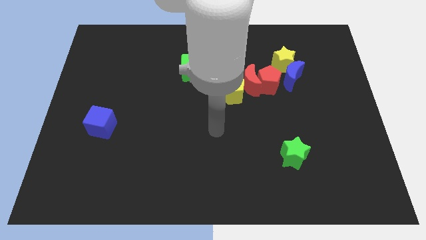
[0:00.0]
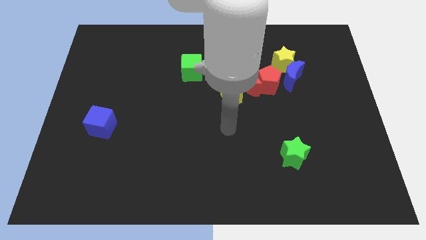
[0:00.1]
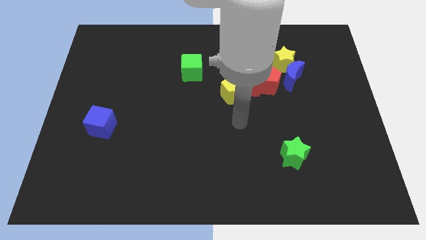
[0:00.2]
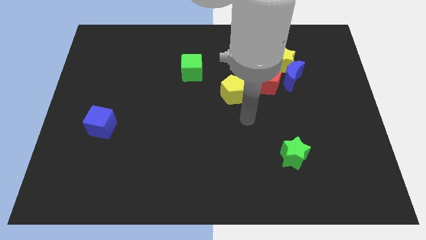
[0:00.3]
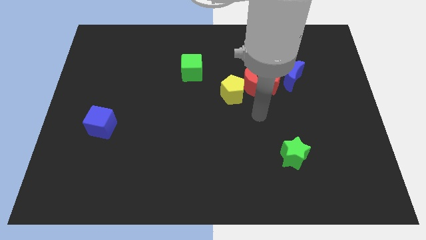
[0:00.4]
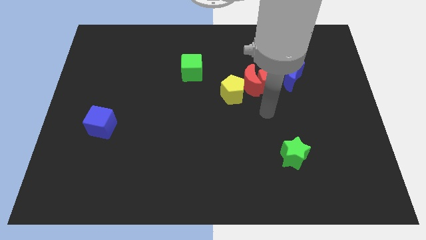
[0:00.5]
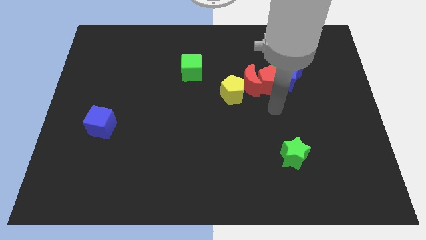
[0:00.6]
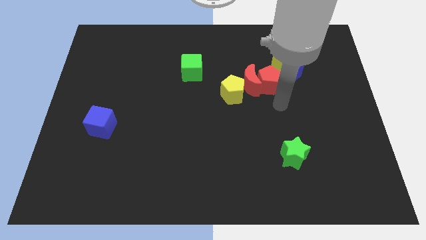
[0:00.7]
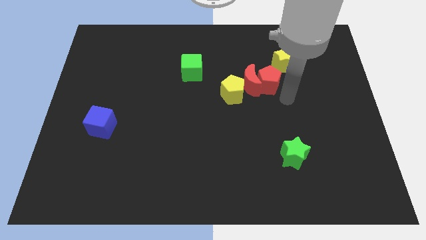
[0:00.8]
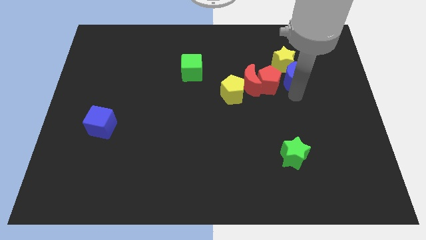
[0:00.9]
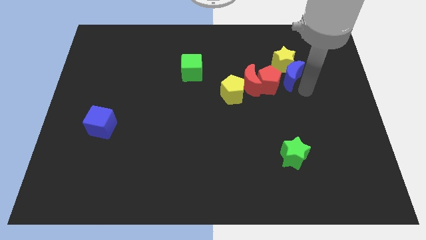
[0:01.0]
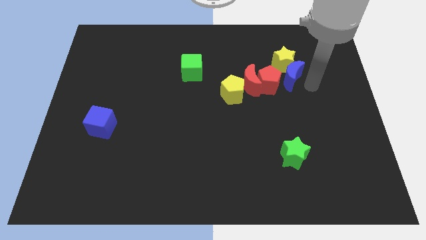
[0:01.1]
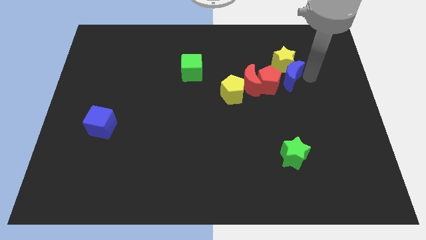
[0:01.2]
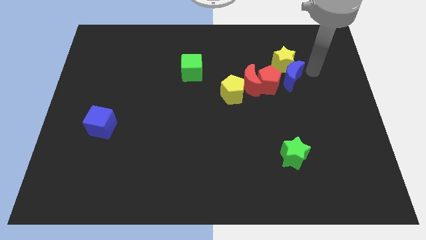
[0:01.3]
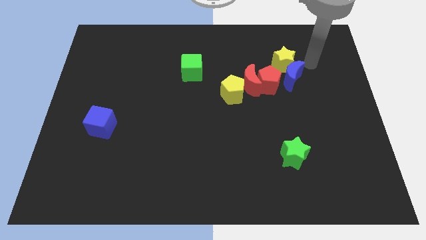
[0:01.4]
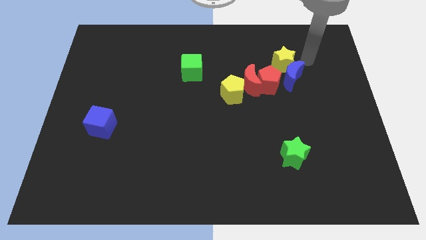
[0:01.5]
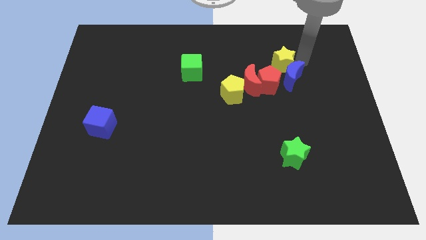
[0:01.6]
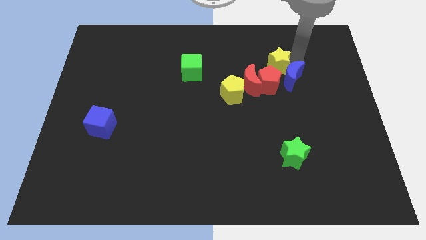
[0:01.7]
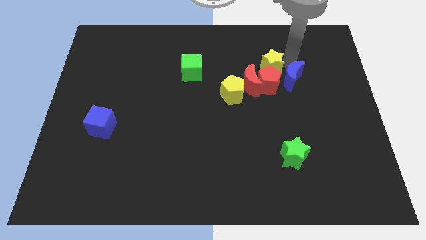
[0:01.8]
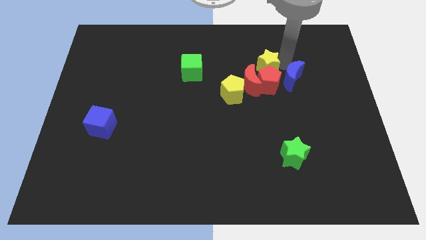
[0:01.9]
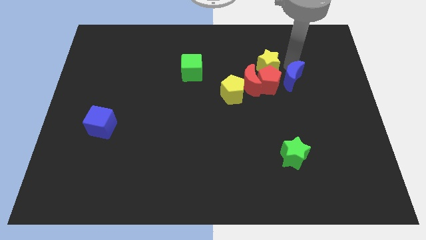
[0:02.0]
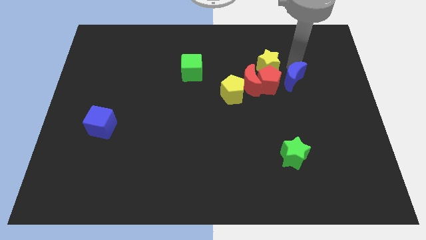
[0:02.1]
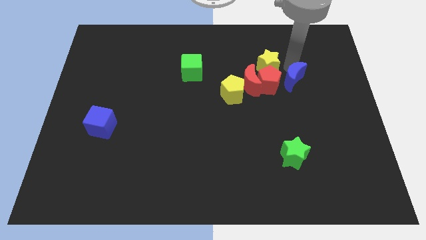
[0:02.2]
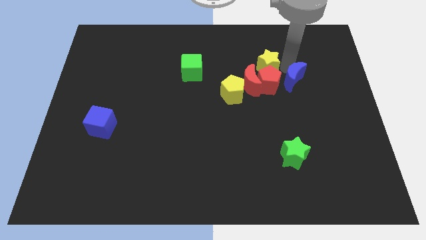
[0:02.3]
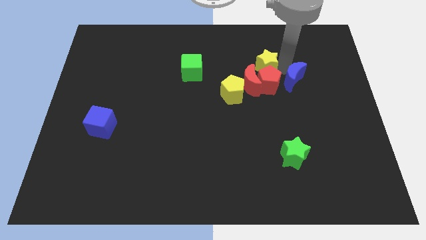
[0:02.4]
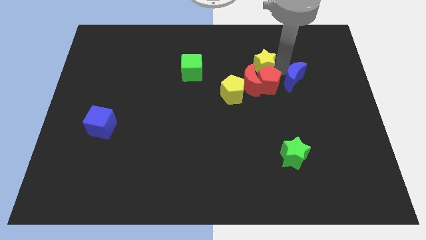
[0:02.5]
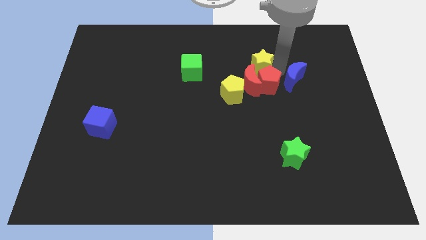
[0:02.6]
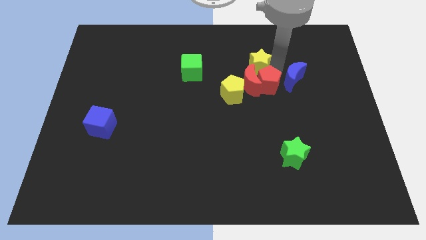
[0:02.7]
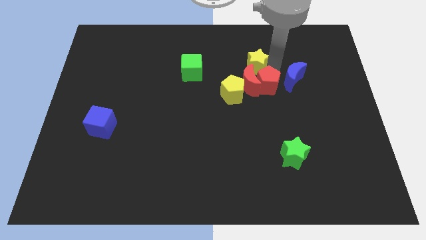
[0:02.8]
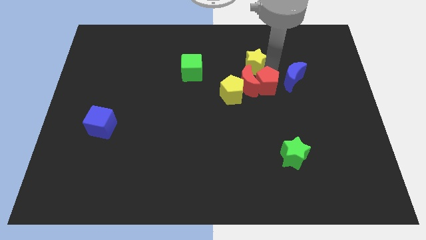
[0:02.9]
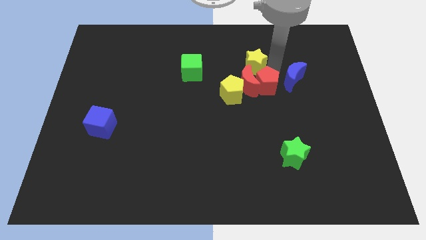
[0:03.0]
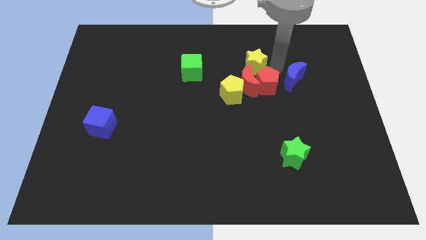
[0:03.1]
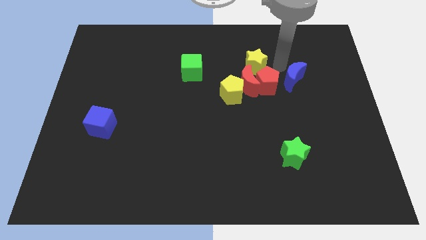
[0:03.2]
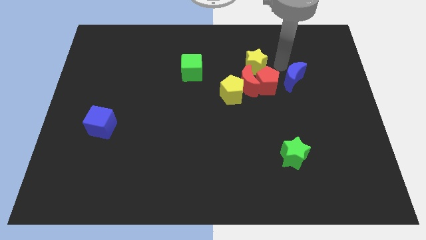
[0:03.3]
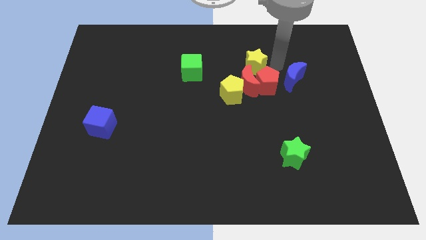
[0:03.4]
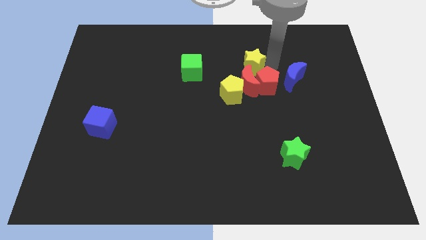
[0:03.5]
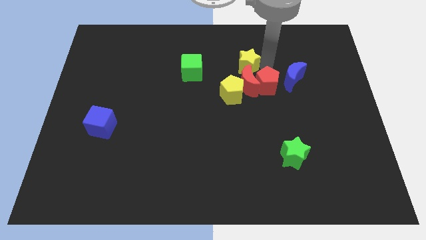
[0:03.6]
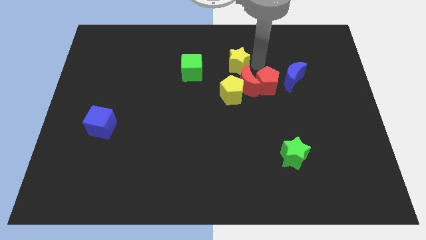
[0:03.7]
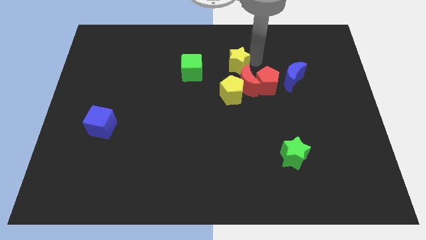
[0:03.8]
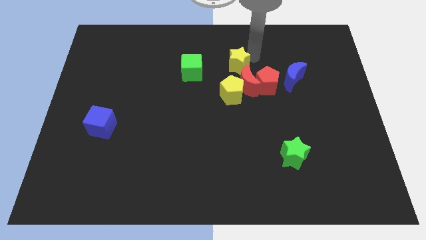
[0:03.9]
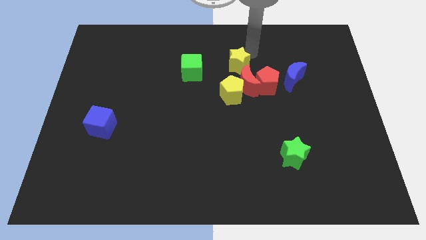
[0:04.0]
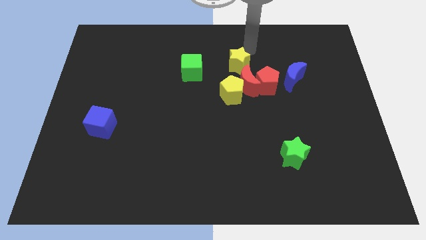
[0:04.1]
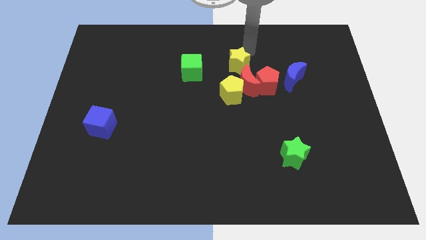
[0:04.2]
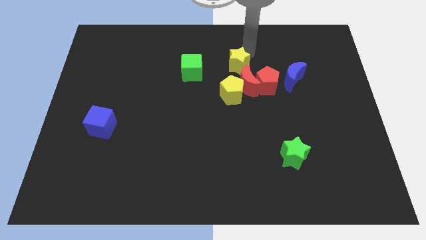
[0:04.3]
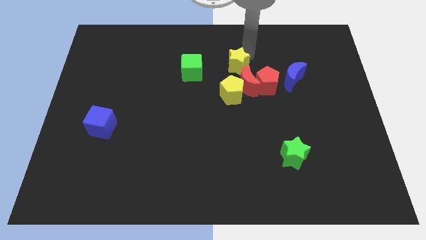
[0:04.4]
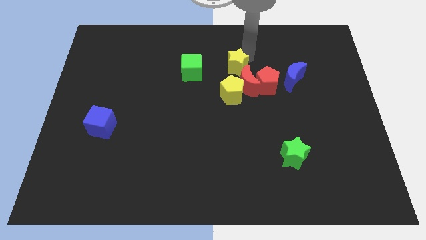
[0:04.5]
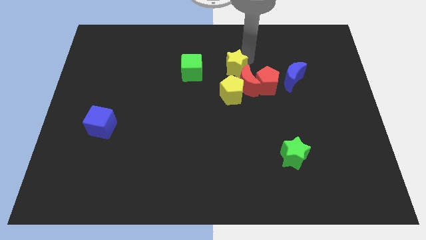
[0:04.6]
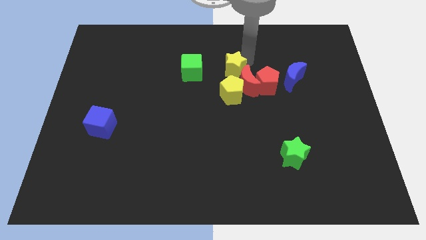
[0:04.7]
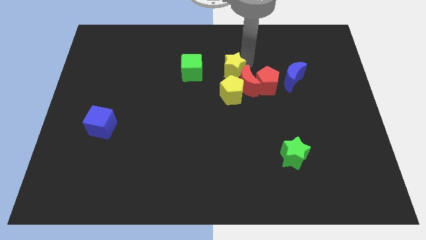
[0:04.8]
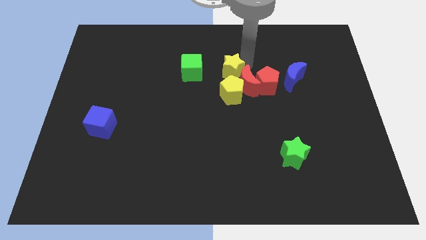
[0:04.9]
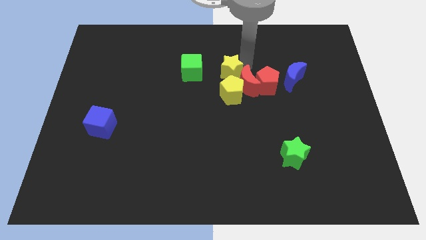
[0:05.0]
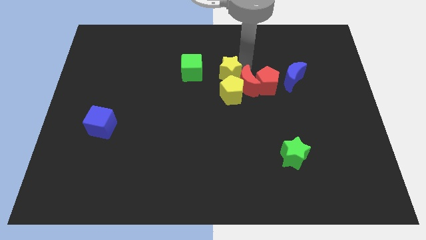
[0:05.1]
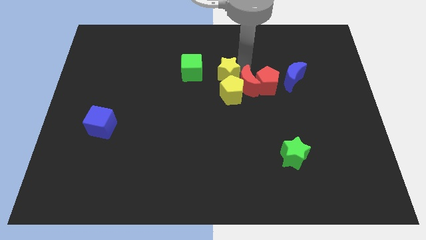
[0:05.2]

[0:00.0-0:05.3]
put the yellow star close to the yellow pentagon

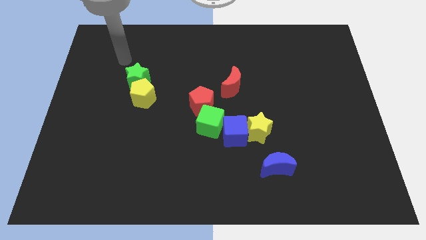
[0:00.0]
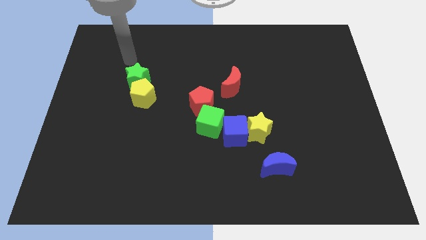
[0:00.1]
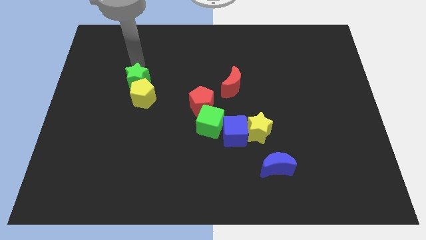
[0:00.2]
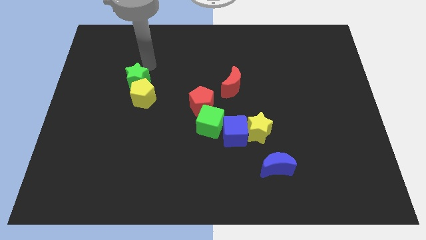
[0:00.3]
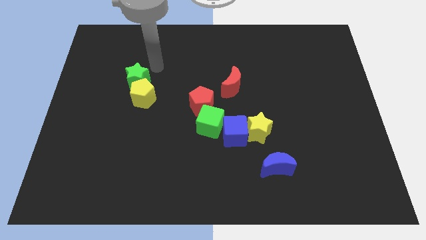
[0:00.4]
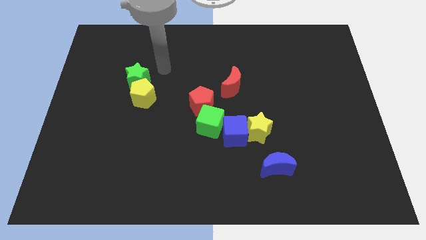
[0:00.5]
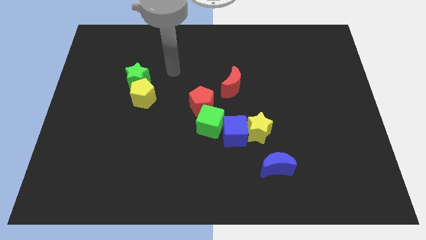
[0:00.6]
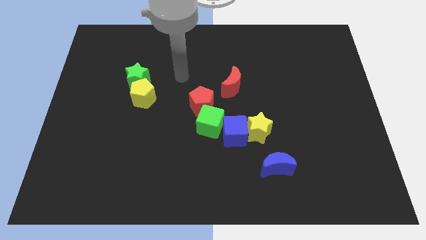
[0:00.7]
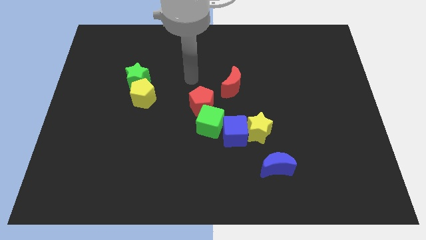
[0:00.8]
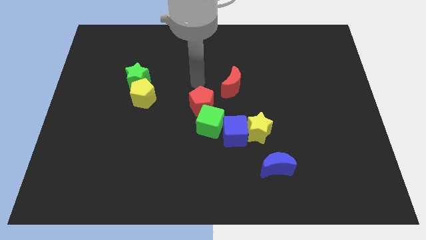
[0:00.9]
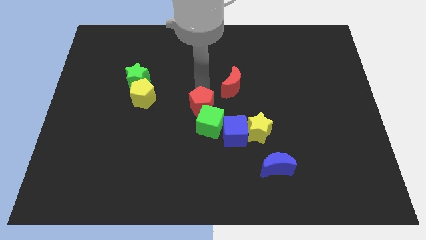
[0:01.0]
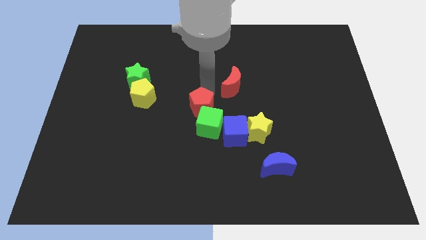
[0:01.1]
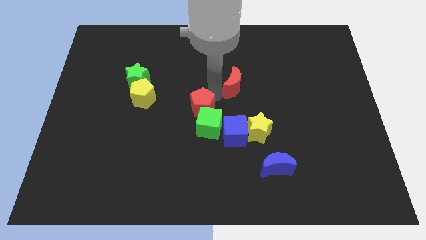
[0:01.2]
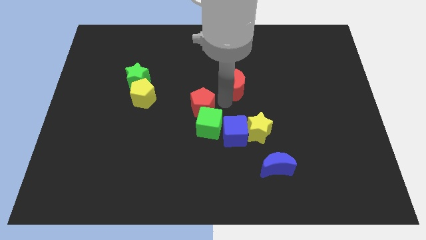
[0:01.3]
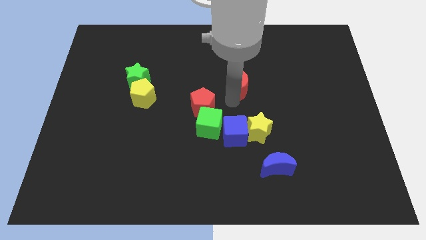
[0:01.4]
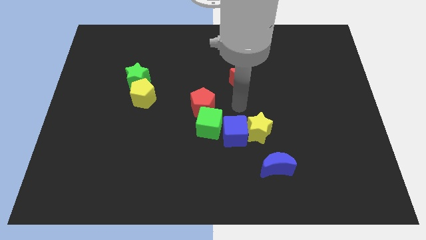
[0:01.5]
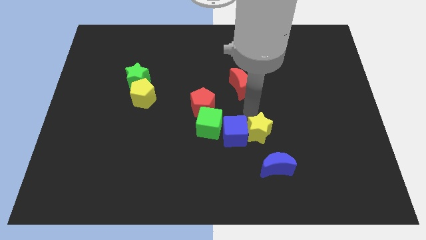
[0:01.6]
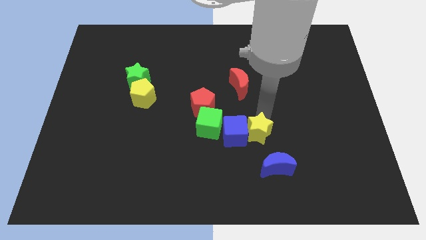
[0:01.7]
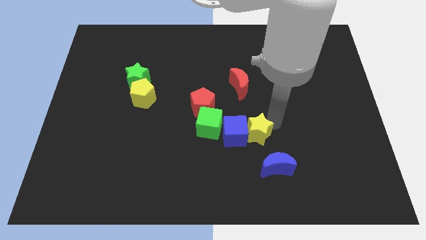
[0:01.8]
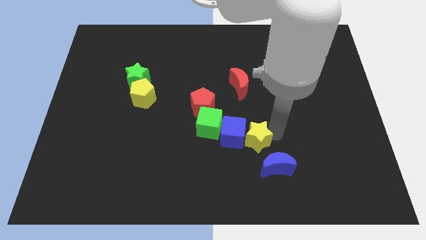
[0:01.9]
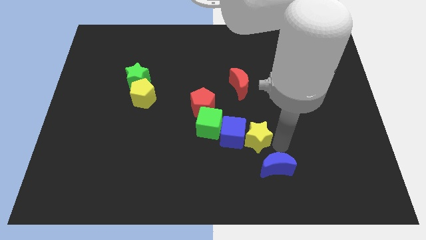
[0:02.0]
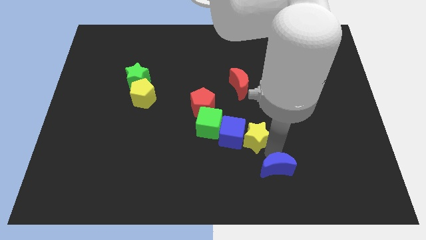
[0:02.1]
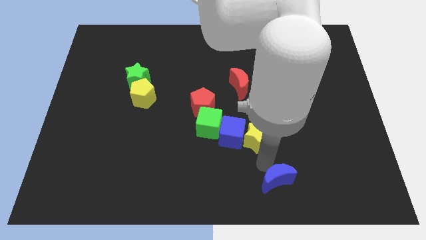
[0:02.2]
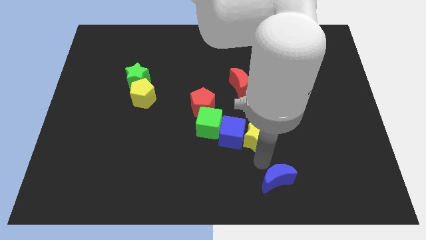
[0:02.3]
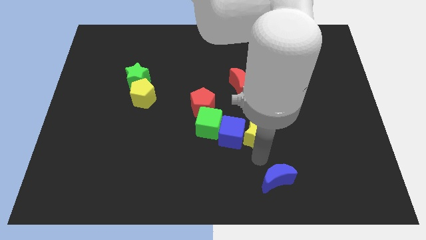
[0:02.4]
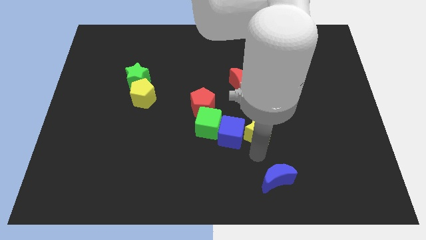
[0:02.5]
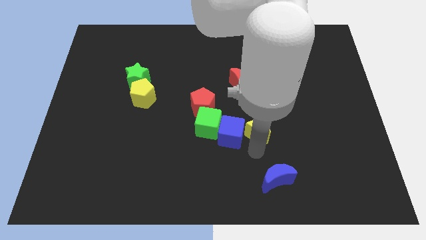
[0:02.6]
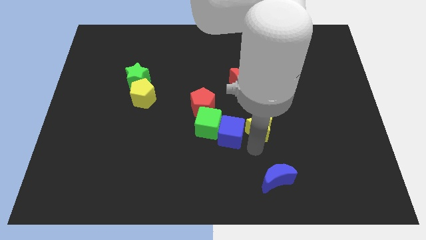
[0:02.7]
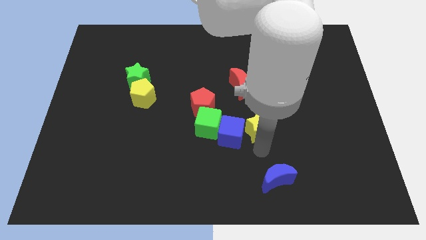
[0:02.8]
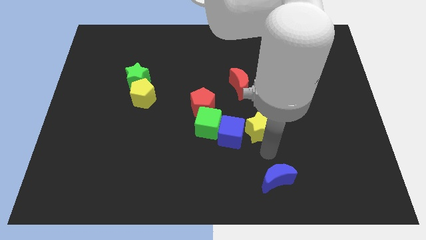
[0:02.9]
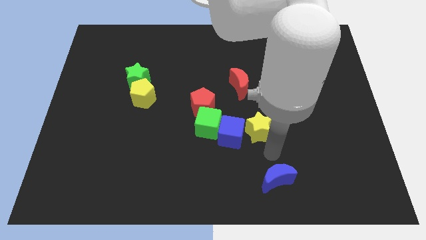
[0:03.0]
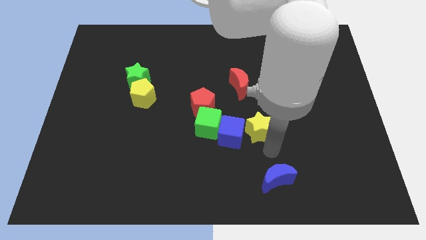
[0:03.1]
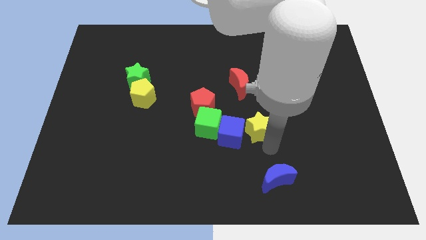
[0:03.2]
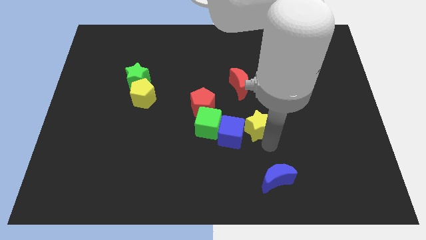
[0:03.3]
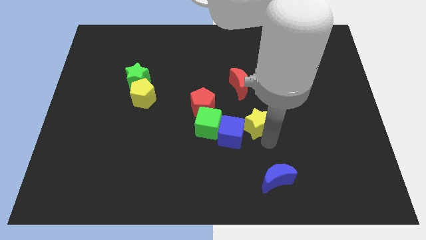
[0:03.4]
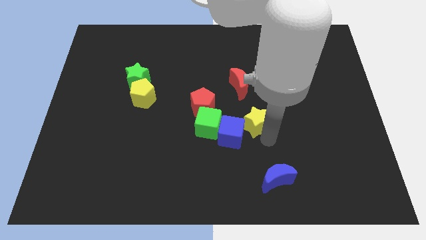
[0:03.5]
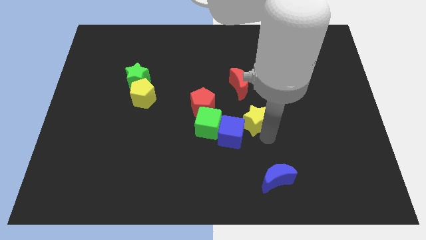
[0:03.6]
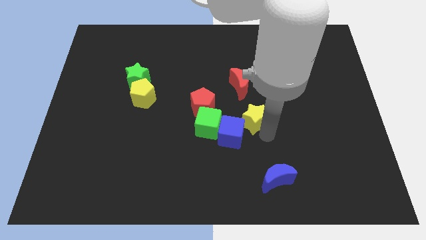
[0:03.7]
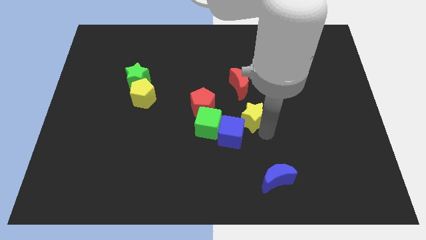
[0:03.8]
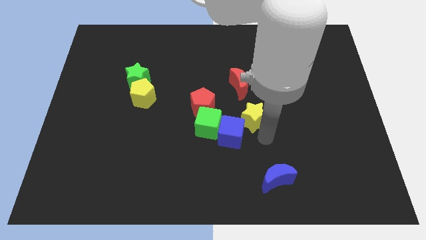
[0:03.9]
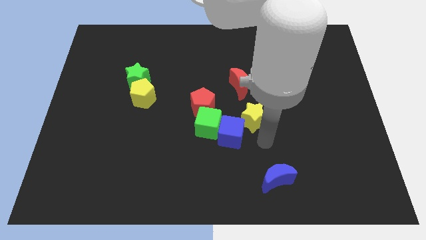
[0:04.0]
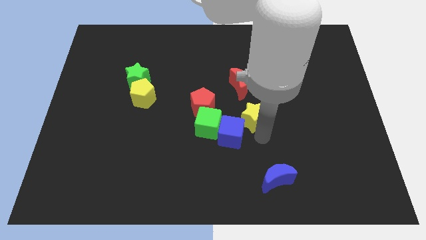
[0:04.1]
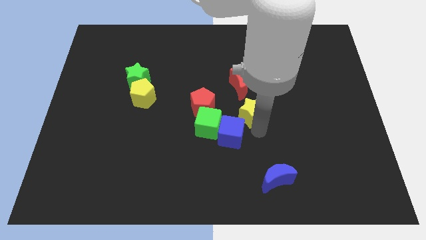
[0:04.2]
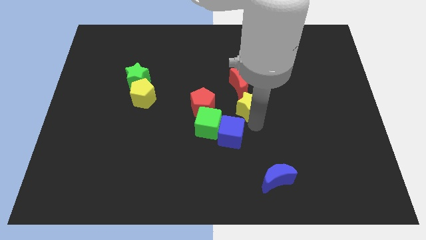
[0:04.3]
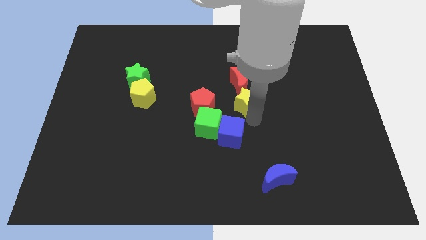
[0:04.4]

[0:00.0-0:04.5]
move the yellow star close to the red moon
